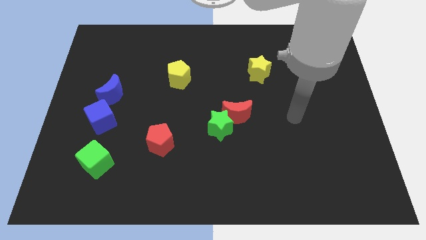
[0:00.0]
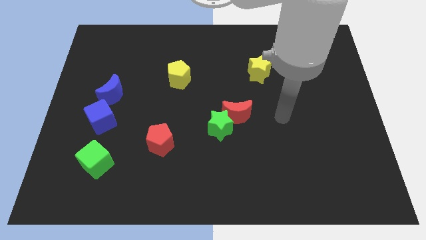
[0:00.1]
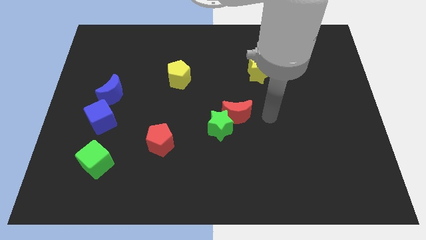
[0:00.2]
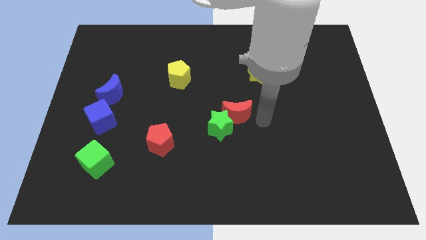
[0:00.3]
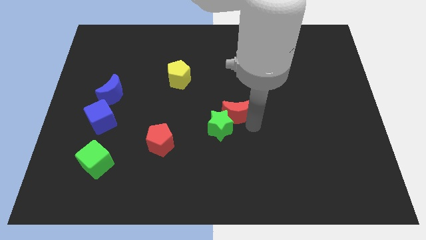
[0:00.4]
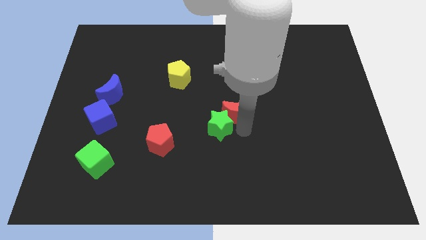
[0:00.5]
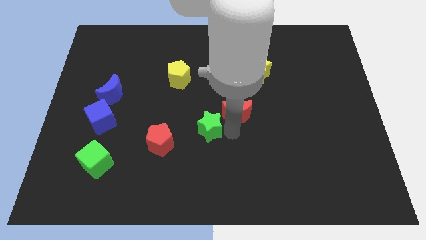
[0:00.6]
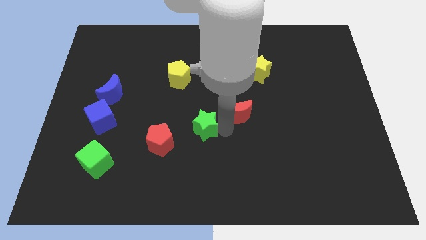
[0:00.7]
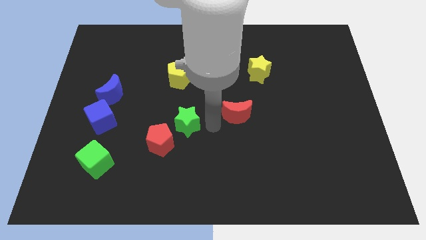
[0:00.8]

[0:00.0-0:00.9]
move the red moon away from the green star

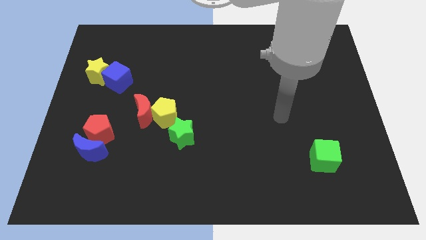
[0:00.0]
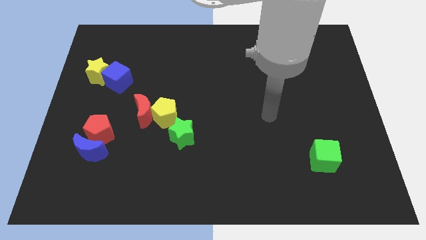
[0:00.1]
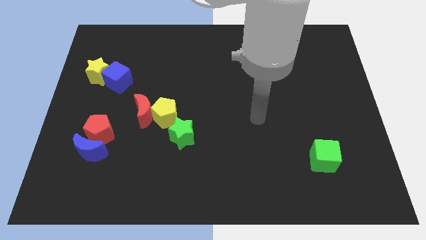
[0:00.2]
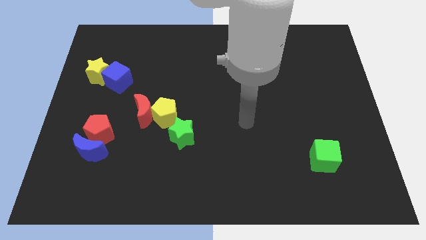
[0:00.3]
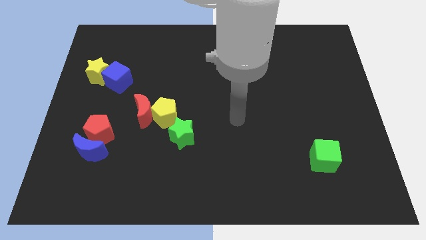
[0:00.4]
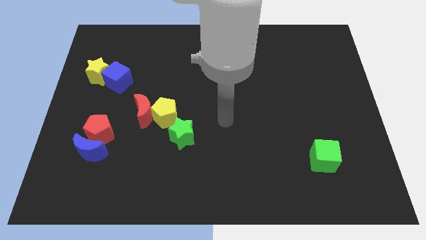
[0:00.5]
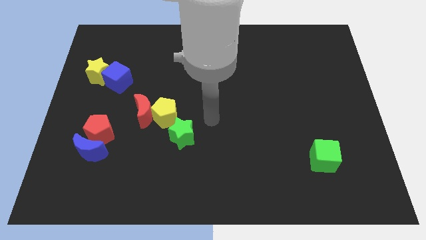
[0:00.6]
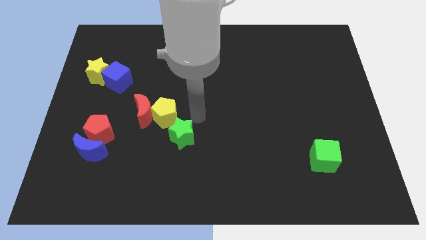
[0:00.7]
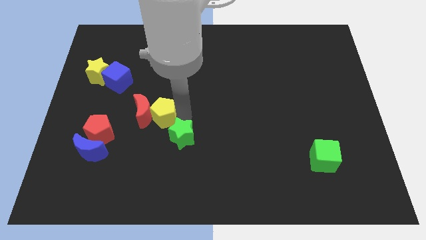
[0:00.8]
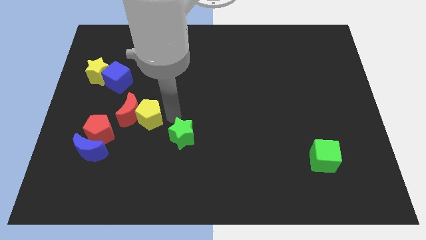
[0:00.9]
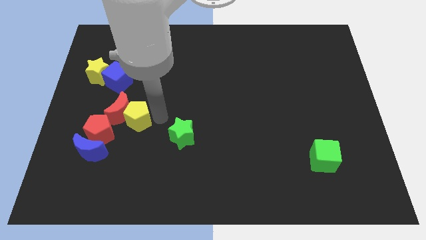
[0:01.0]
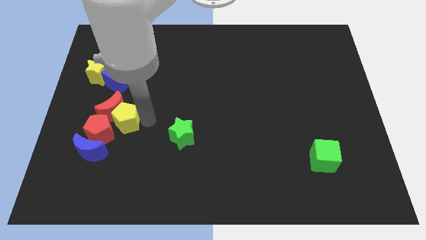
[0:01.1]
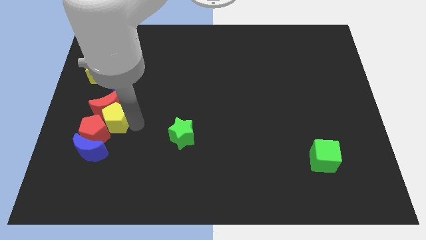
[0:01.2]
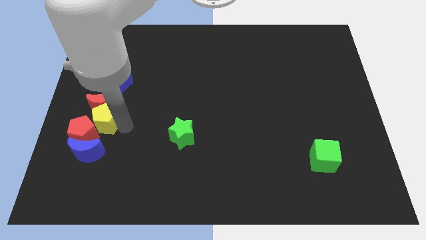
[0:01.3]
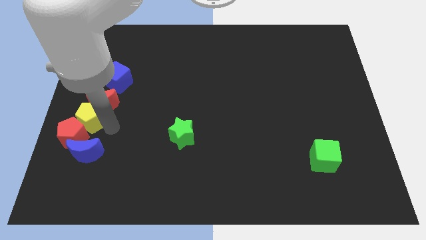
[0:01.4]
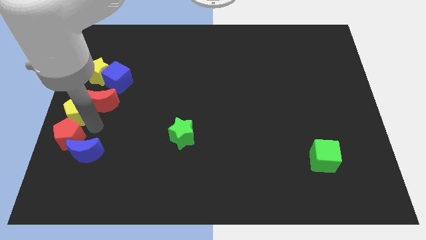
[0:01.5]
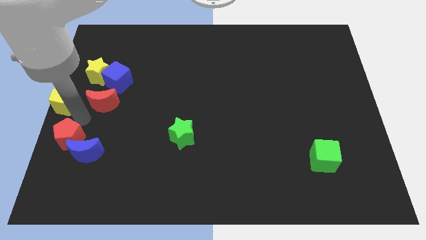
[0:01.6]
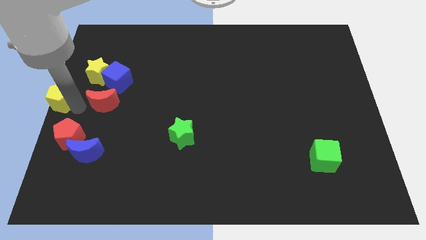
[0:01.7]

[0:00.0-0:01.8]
separate the red moon from the yellow pentagon

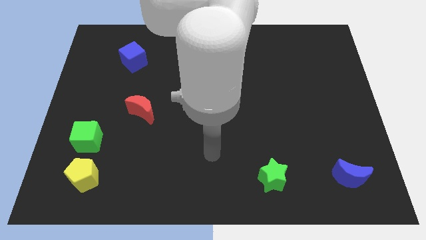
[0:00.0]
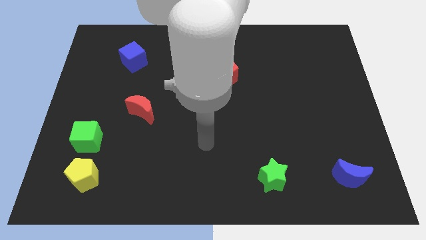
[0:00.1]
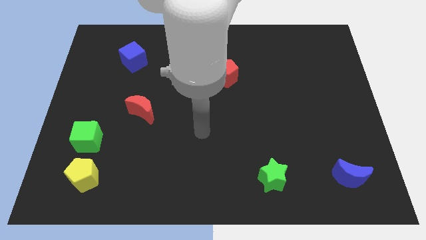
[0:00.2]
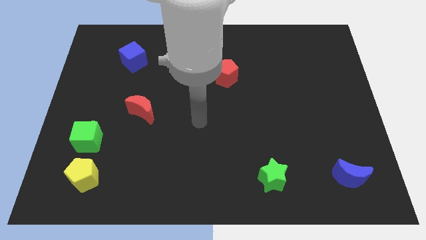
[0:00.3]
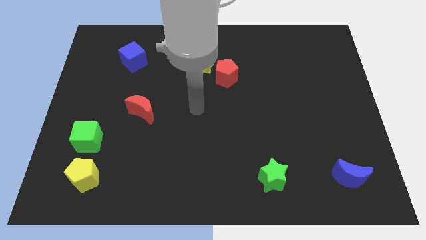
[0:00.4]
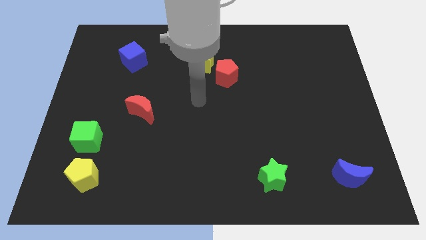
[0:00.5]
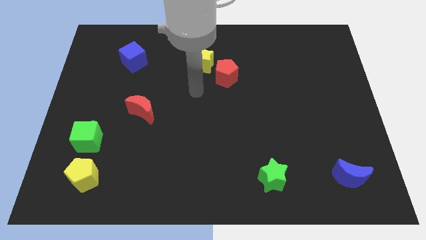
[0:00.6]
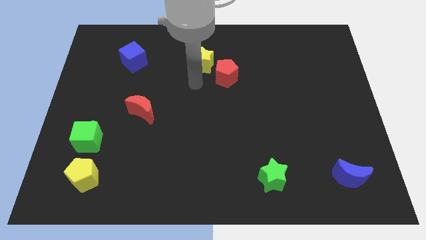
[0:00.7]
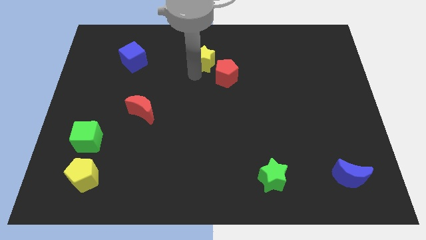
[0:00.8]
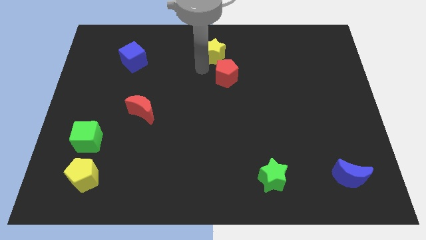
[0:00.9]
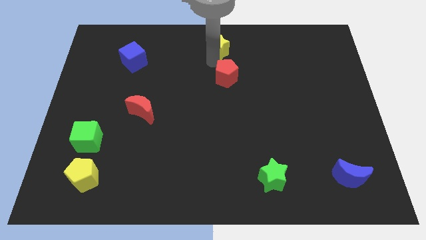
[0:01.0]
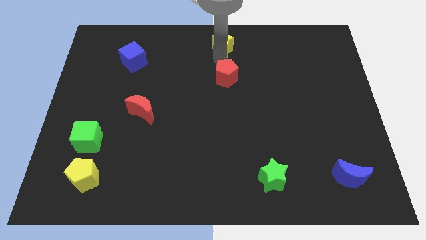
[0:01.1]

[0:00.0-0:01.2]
separate the red pentagon from the yellow star

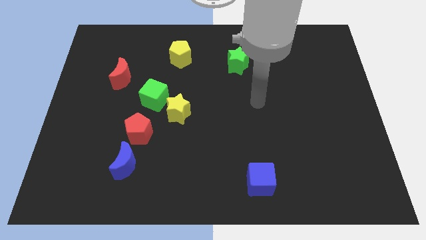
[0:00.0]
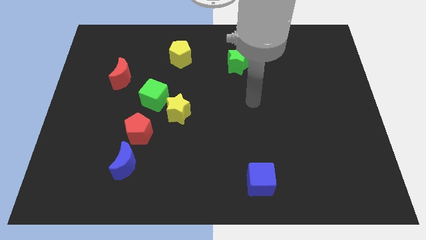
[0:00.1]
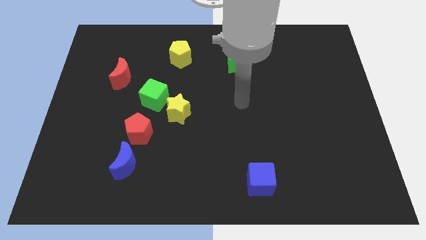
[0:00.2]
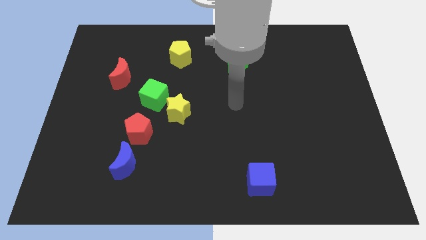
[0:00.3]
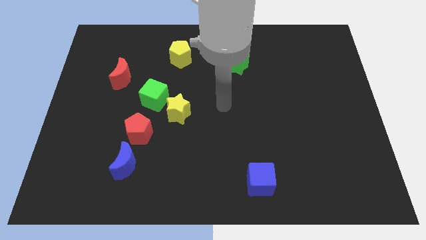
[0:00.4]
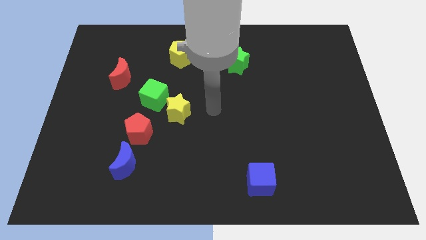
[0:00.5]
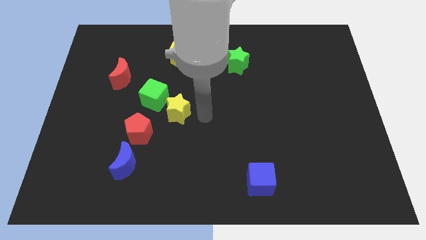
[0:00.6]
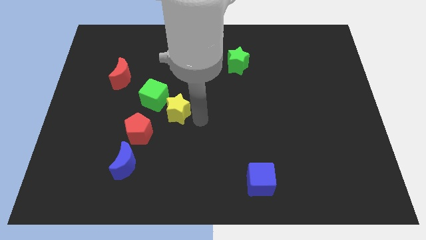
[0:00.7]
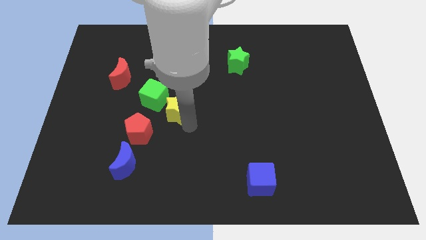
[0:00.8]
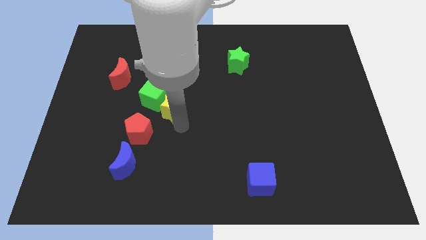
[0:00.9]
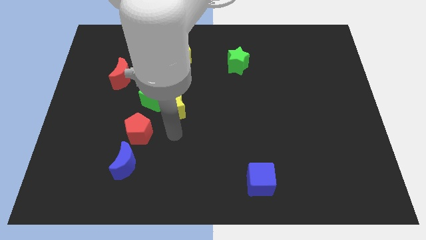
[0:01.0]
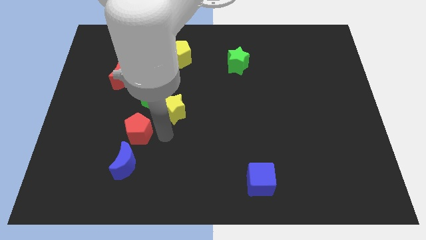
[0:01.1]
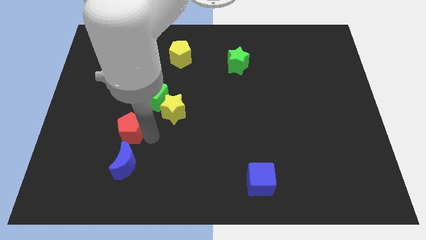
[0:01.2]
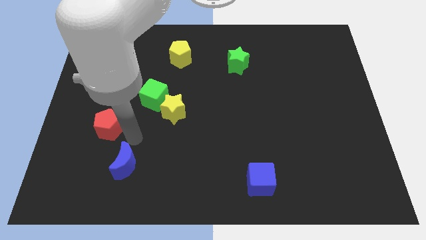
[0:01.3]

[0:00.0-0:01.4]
separate the blue moon from the red pentagon

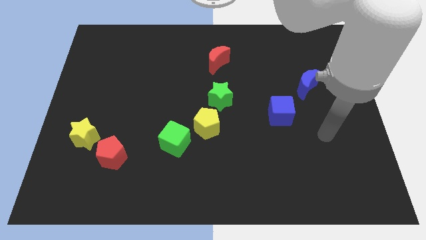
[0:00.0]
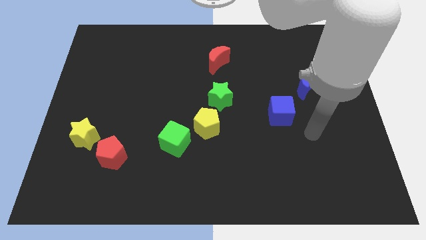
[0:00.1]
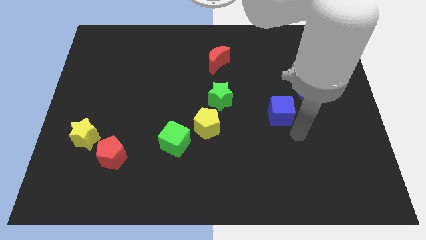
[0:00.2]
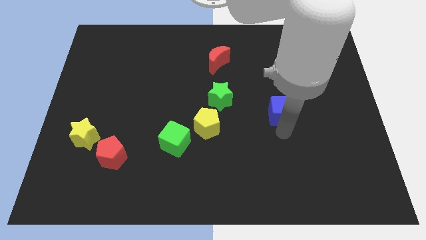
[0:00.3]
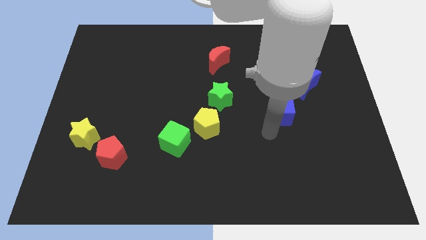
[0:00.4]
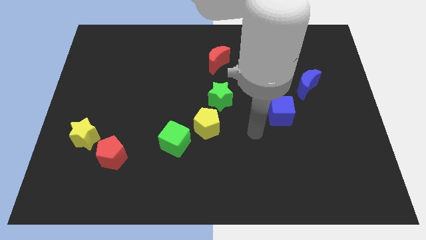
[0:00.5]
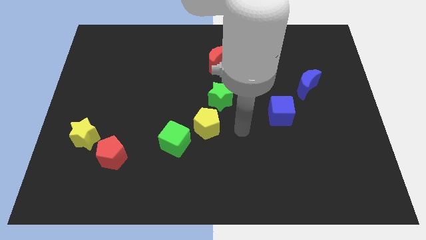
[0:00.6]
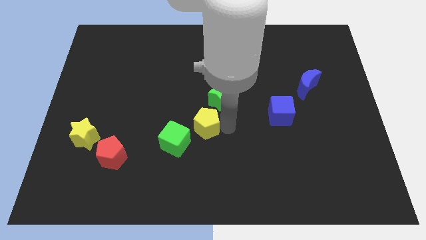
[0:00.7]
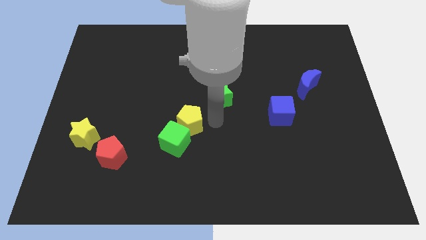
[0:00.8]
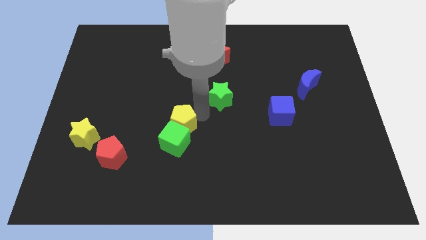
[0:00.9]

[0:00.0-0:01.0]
move the green star away from the yellow pentagon

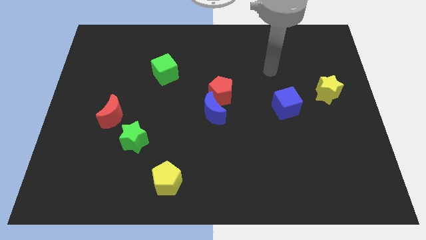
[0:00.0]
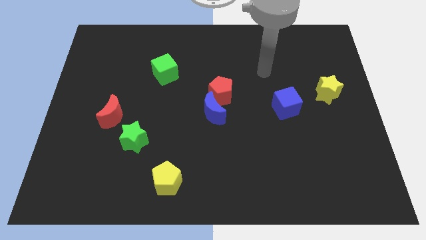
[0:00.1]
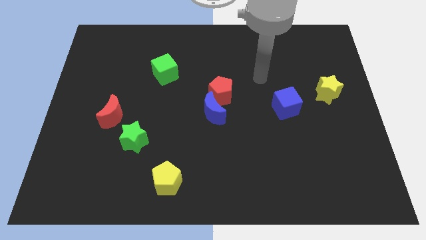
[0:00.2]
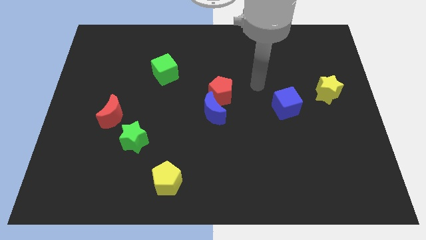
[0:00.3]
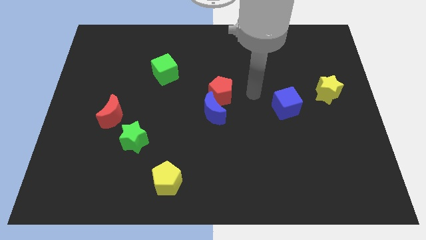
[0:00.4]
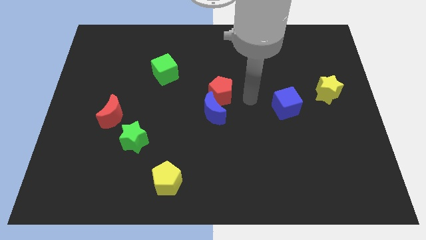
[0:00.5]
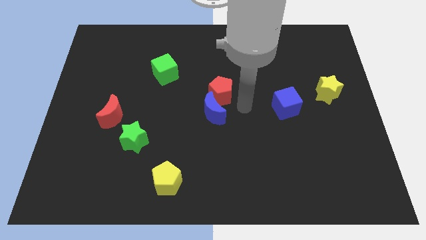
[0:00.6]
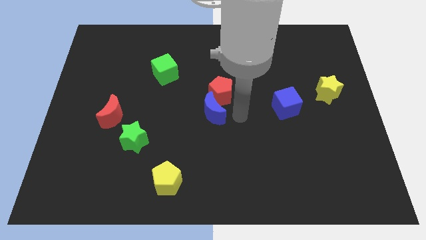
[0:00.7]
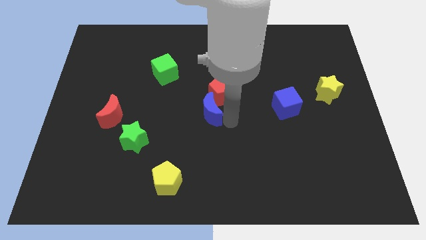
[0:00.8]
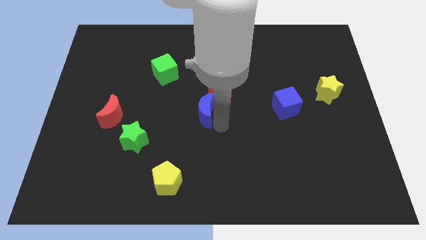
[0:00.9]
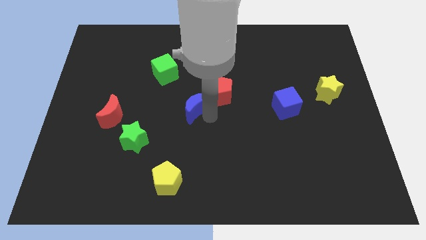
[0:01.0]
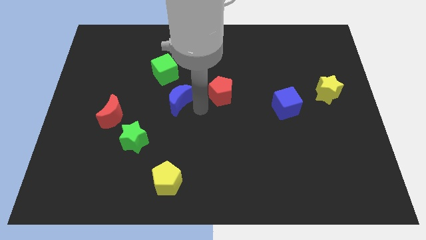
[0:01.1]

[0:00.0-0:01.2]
pull the red pentagon apart from the blue moon

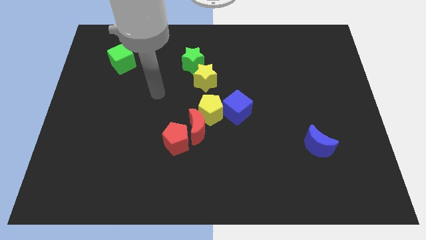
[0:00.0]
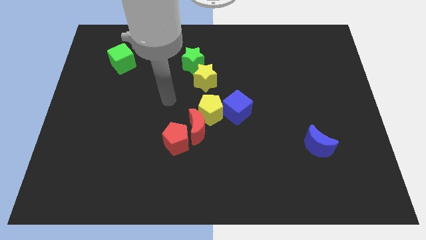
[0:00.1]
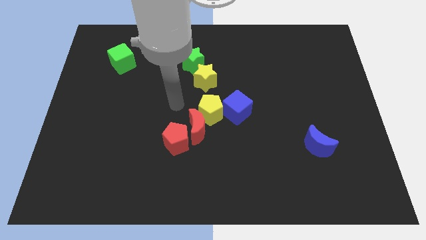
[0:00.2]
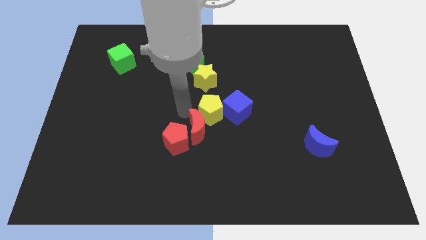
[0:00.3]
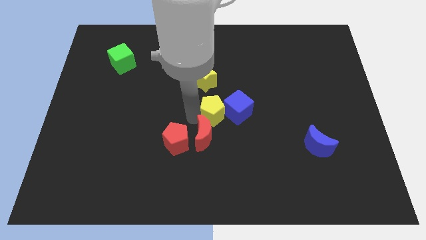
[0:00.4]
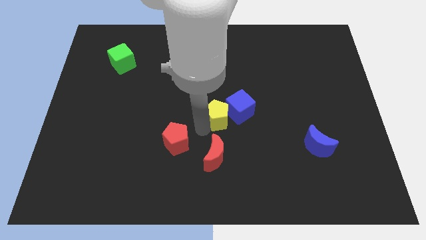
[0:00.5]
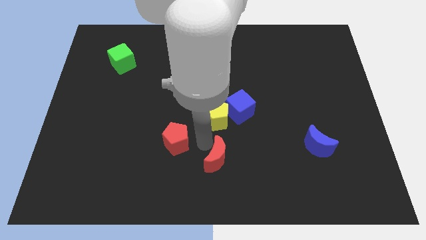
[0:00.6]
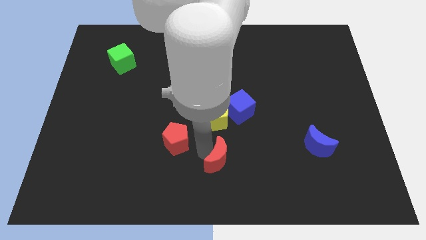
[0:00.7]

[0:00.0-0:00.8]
pull the red pentagon apart from the red moon

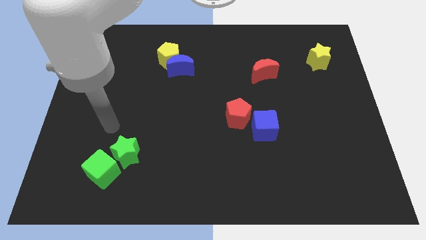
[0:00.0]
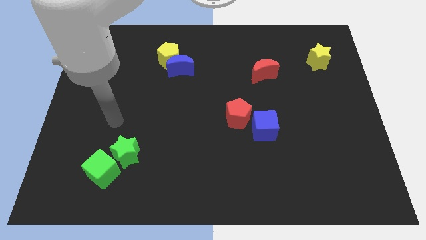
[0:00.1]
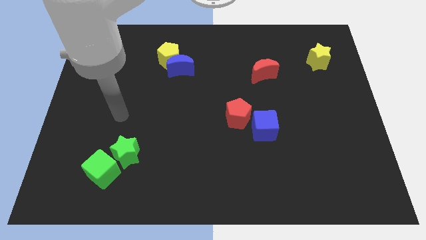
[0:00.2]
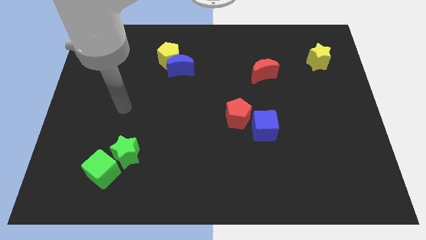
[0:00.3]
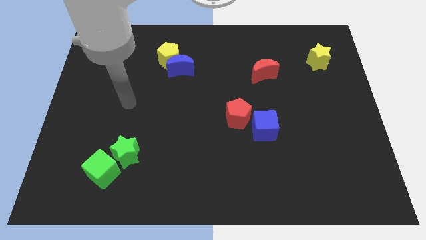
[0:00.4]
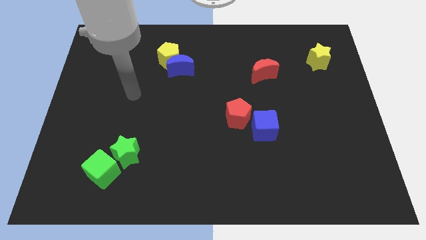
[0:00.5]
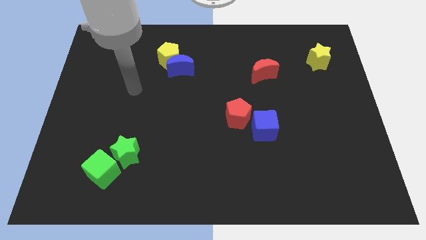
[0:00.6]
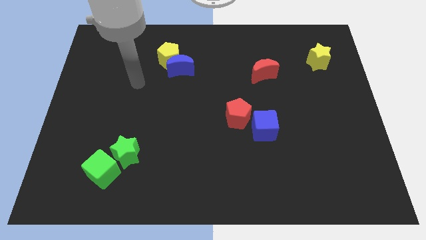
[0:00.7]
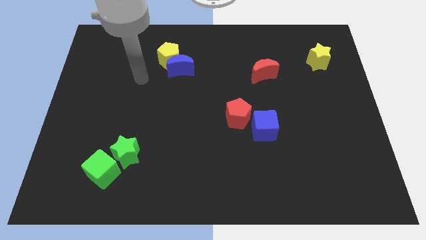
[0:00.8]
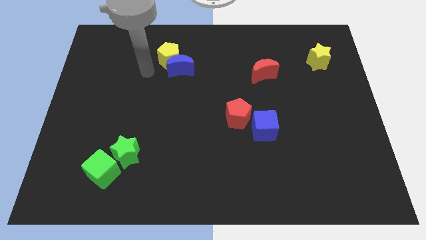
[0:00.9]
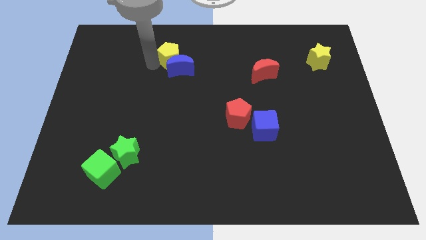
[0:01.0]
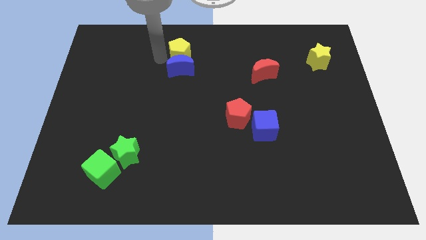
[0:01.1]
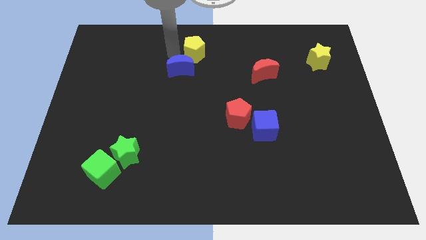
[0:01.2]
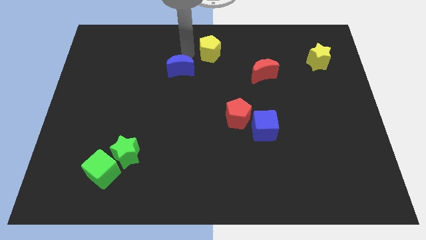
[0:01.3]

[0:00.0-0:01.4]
move the blue moon away from the yellow pentagon
